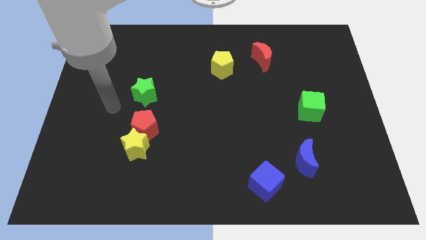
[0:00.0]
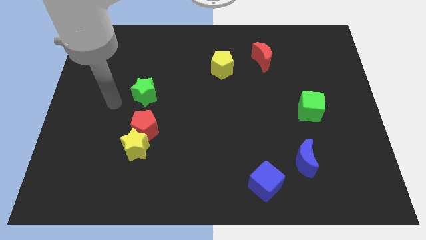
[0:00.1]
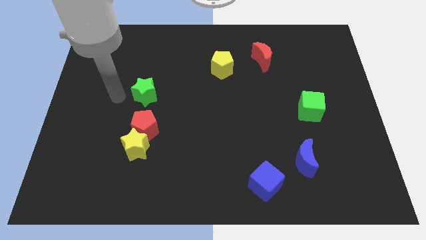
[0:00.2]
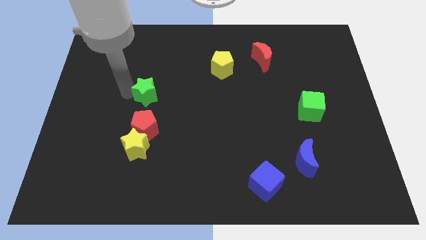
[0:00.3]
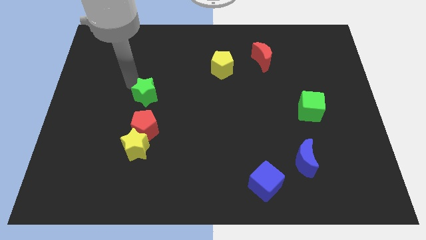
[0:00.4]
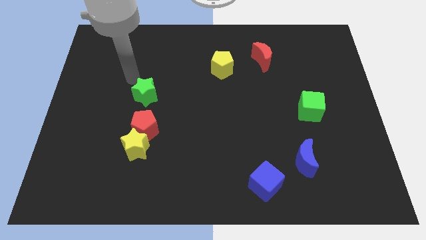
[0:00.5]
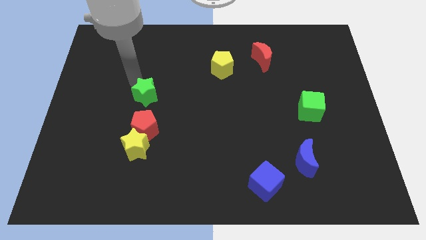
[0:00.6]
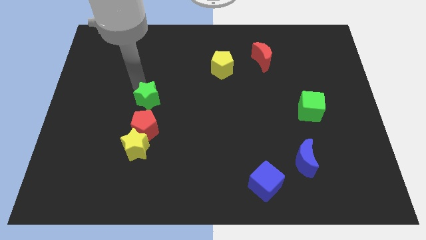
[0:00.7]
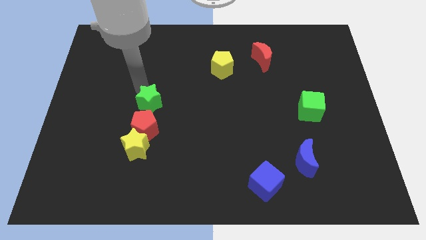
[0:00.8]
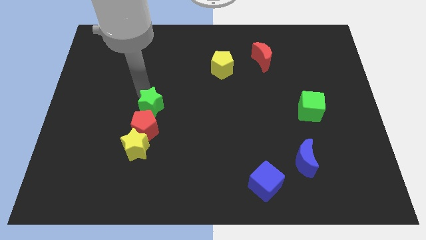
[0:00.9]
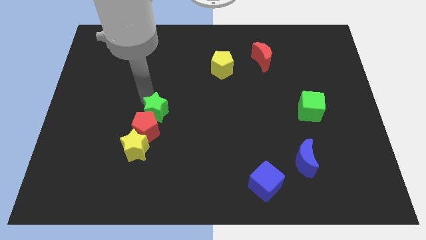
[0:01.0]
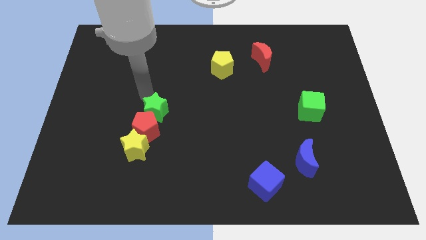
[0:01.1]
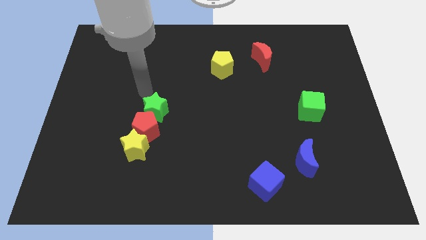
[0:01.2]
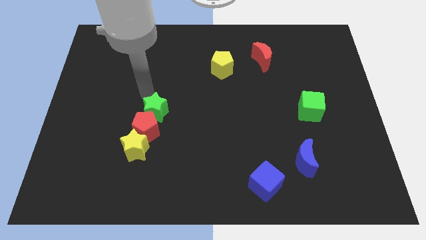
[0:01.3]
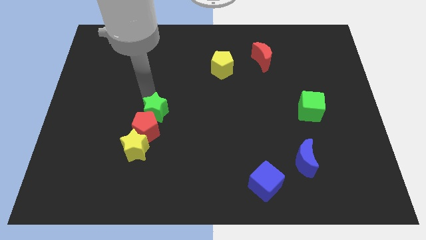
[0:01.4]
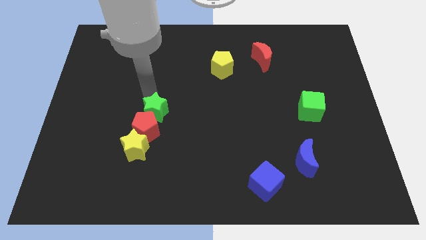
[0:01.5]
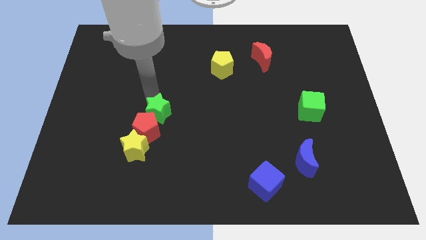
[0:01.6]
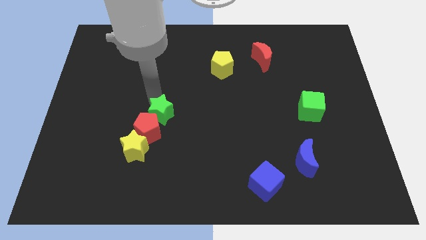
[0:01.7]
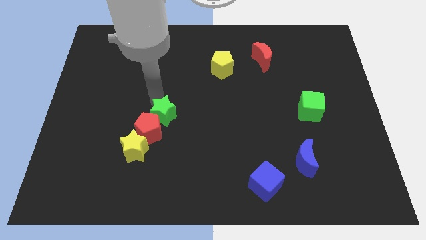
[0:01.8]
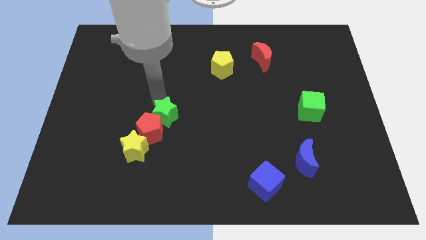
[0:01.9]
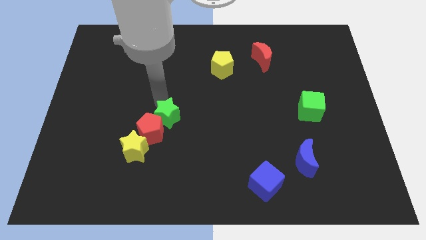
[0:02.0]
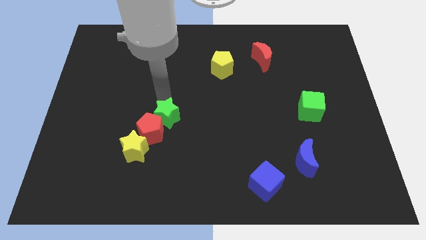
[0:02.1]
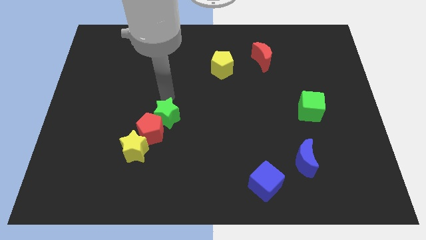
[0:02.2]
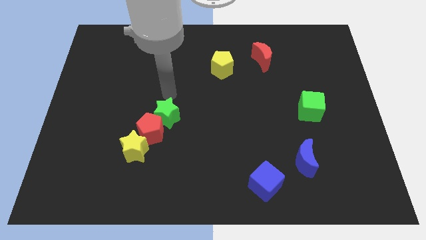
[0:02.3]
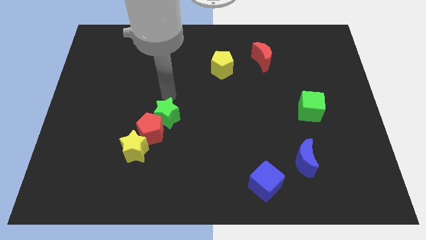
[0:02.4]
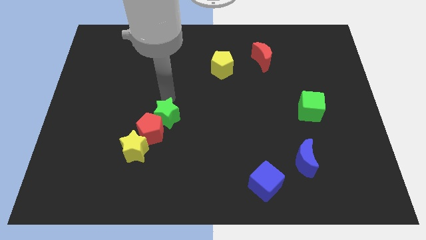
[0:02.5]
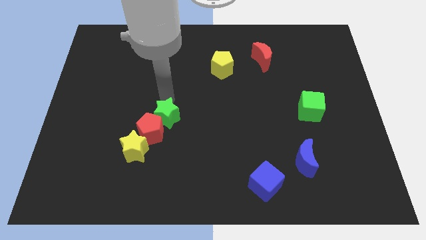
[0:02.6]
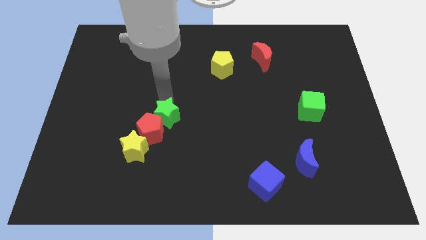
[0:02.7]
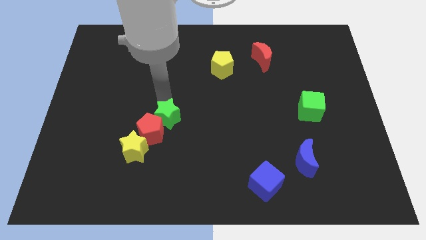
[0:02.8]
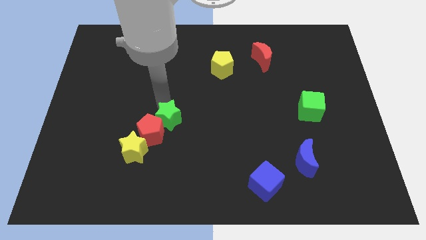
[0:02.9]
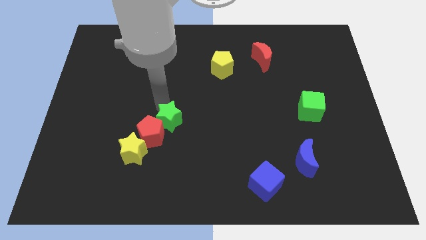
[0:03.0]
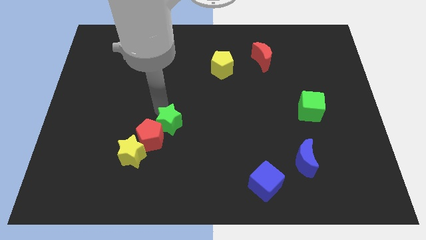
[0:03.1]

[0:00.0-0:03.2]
slide the green star a little bit down

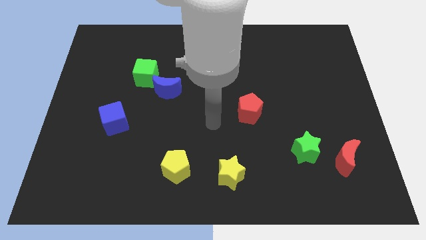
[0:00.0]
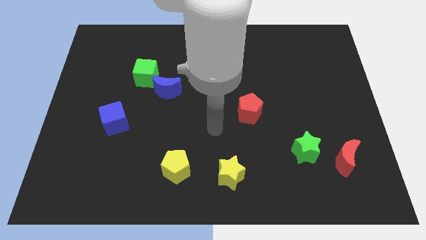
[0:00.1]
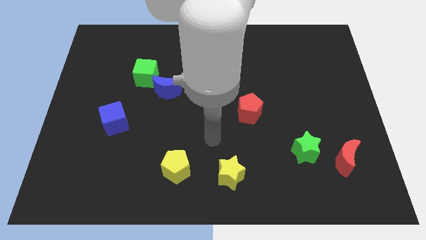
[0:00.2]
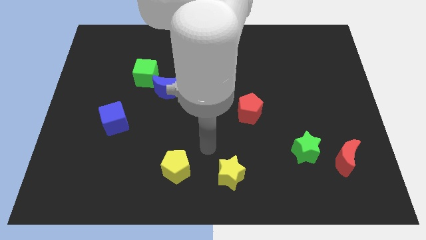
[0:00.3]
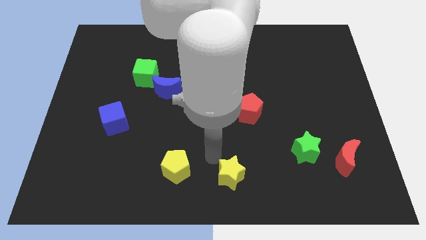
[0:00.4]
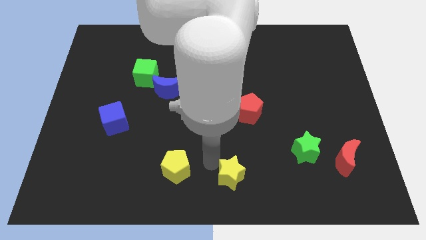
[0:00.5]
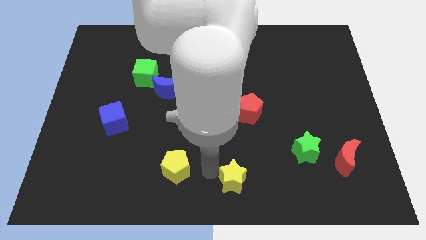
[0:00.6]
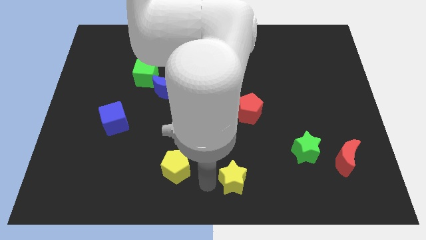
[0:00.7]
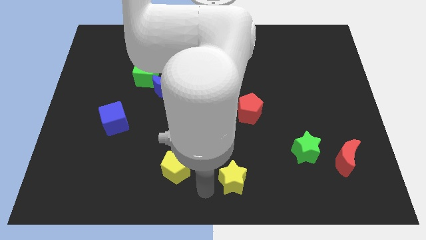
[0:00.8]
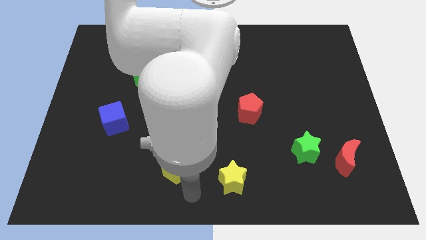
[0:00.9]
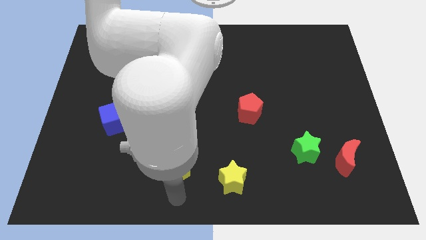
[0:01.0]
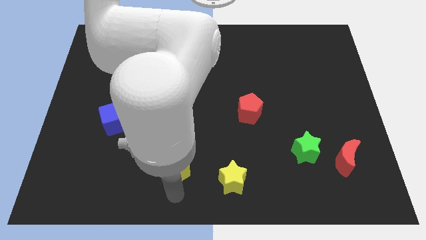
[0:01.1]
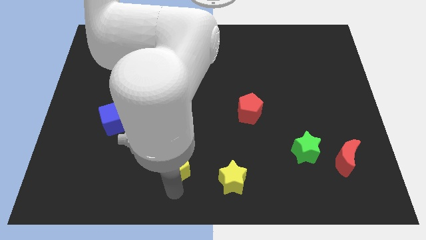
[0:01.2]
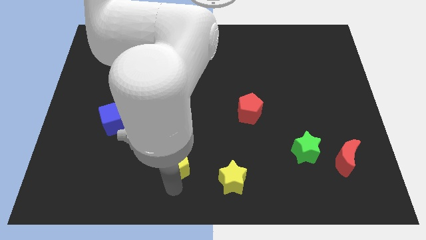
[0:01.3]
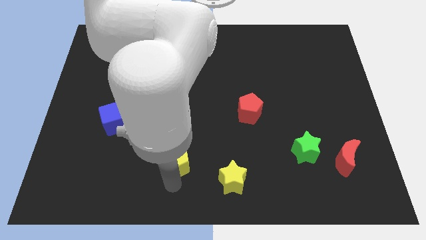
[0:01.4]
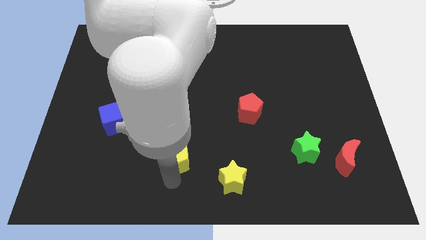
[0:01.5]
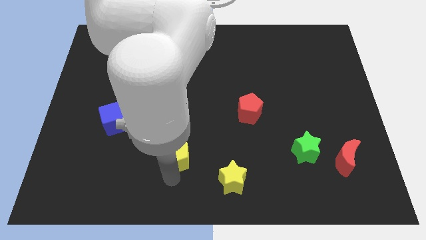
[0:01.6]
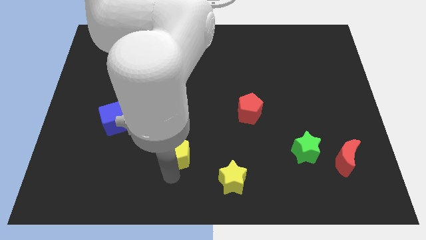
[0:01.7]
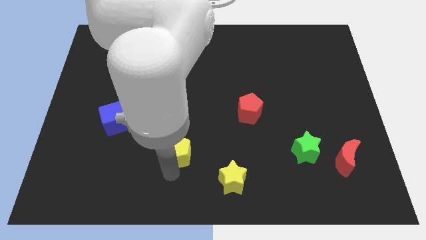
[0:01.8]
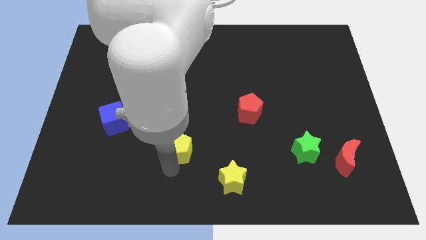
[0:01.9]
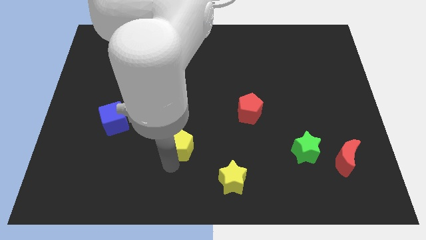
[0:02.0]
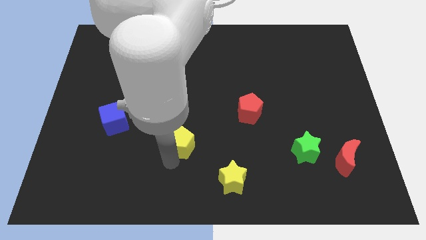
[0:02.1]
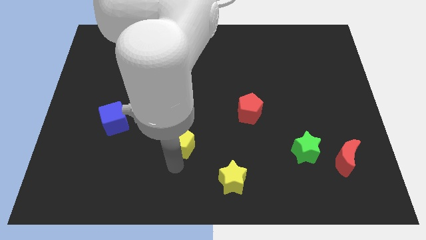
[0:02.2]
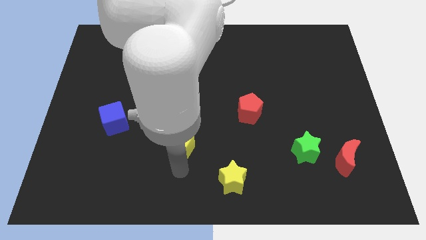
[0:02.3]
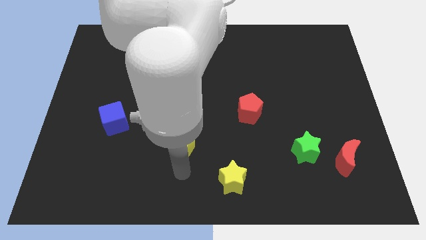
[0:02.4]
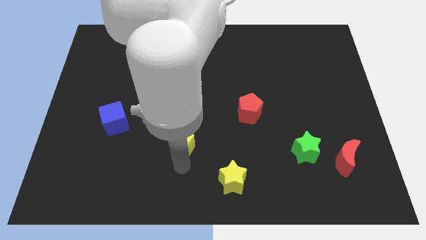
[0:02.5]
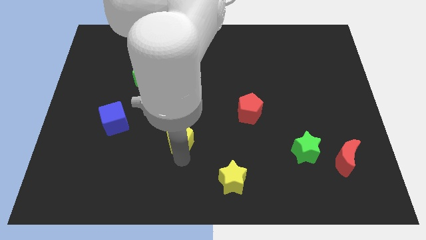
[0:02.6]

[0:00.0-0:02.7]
push the yellow pentagon up a bit

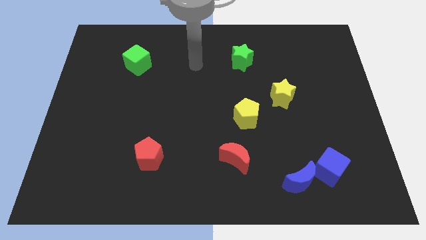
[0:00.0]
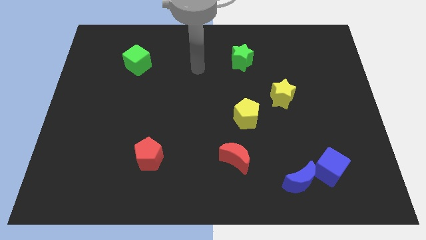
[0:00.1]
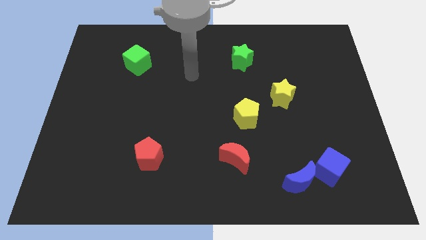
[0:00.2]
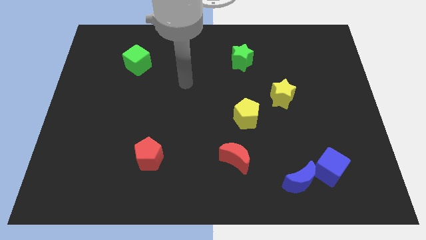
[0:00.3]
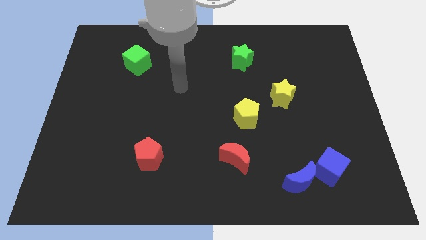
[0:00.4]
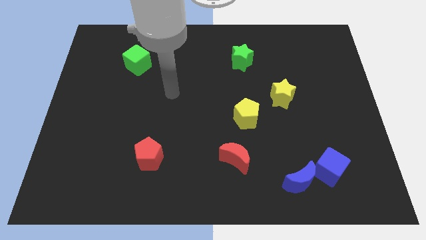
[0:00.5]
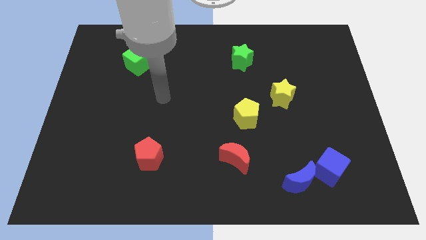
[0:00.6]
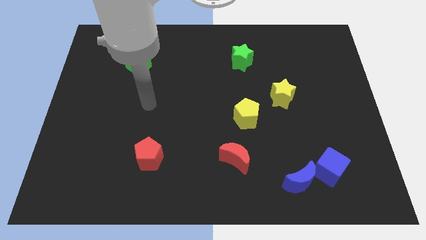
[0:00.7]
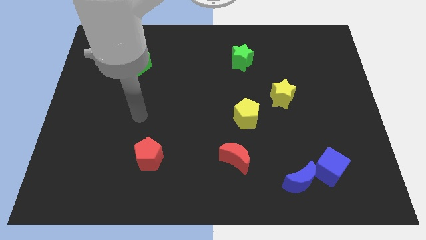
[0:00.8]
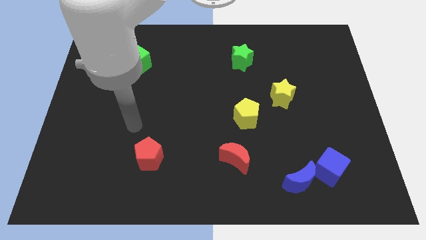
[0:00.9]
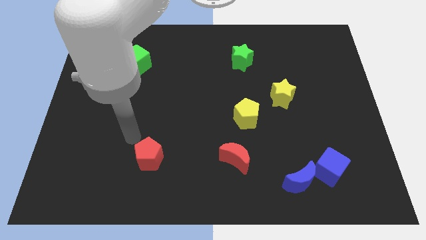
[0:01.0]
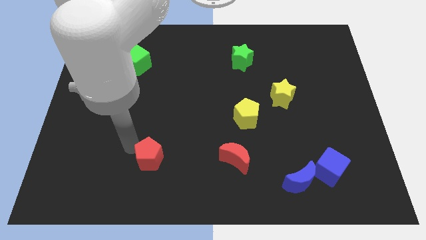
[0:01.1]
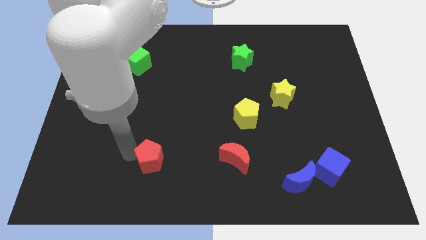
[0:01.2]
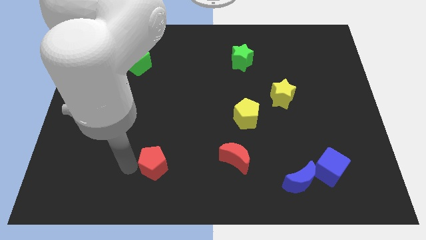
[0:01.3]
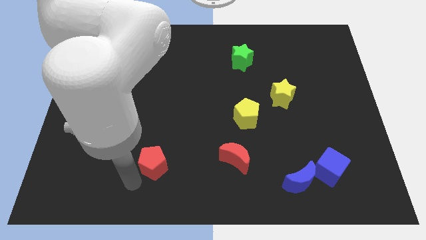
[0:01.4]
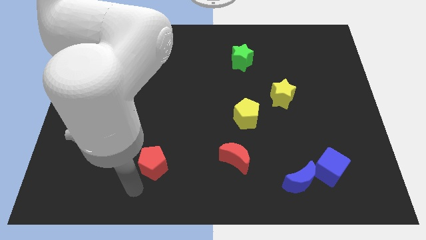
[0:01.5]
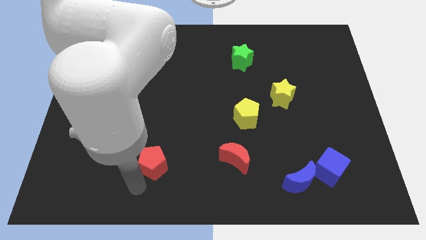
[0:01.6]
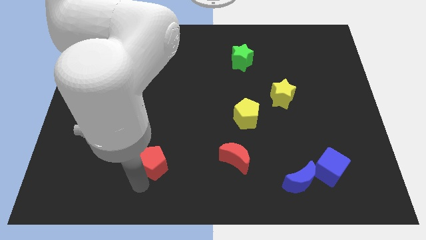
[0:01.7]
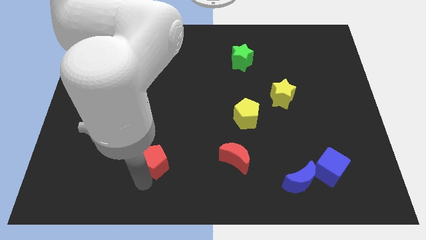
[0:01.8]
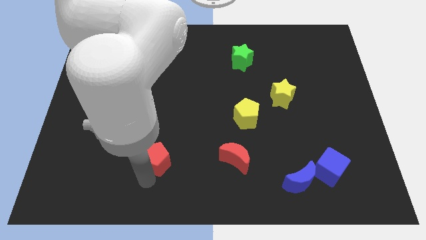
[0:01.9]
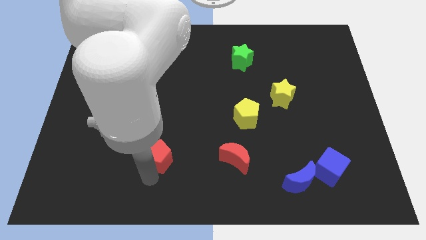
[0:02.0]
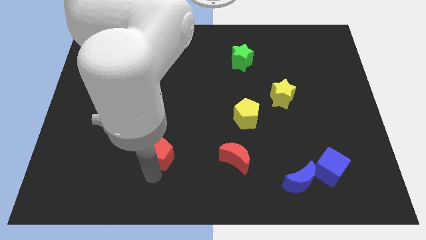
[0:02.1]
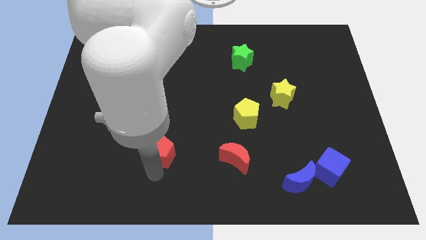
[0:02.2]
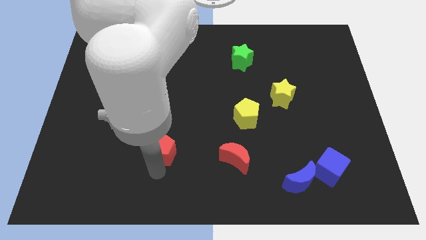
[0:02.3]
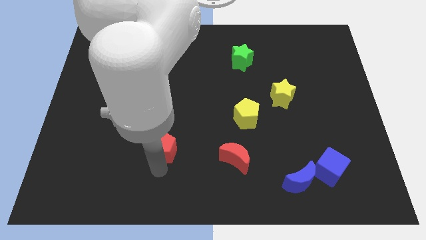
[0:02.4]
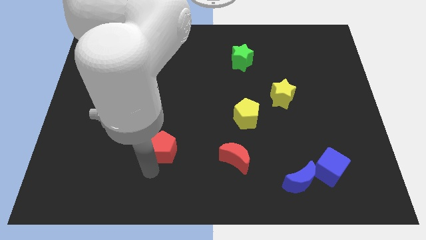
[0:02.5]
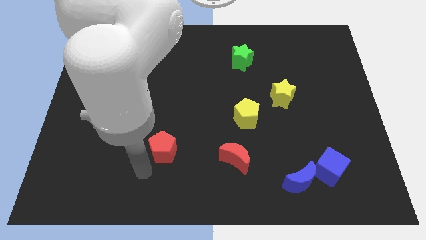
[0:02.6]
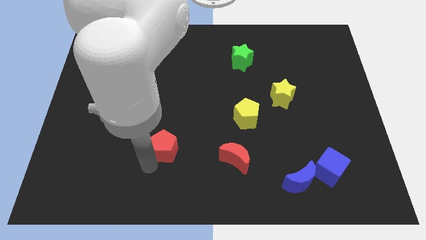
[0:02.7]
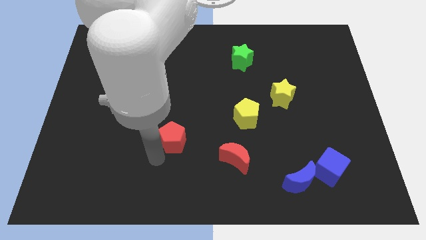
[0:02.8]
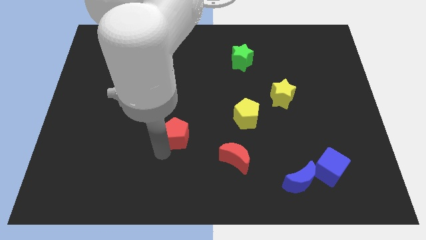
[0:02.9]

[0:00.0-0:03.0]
slide the red pentagon slightly up and then to the right
